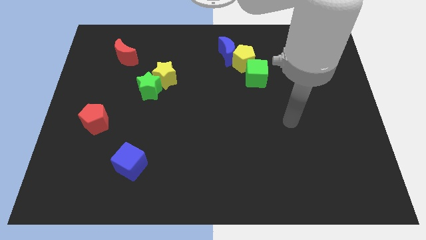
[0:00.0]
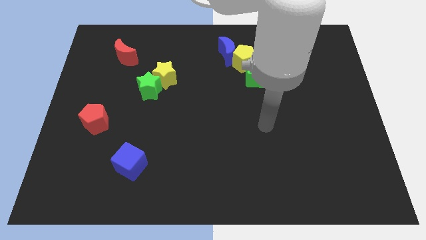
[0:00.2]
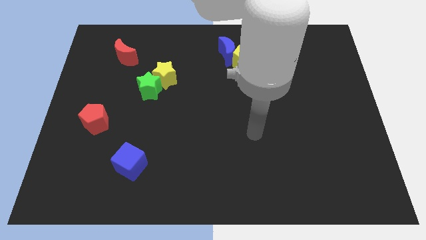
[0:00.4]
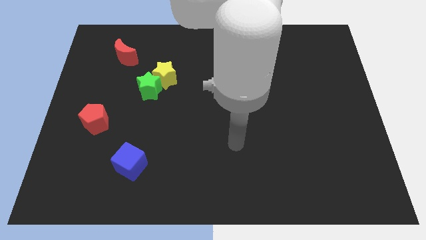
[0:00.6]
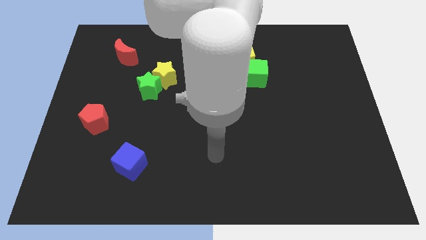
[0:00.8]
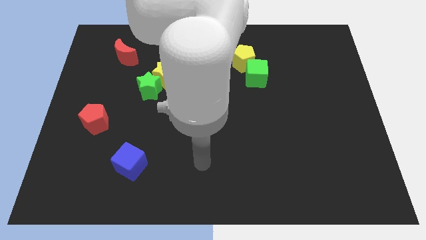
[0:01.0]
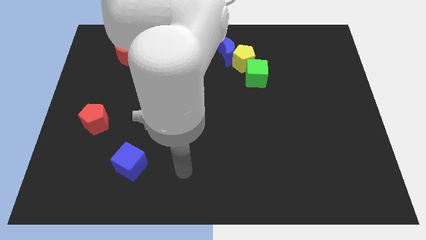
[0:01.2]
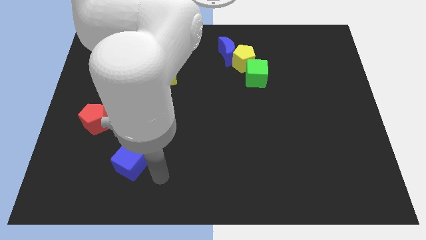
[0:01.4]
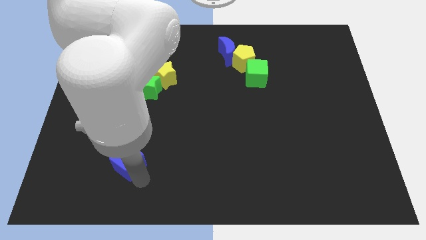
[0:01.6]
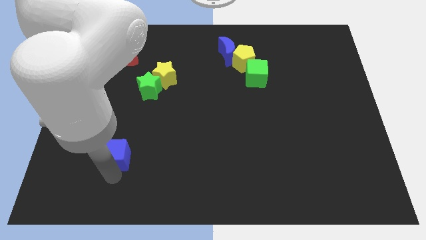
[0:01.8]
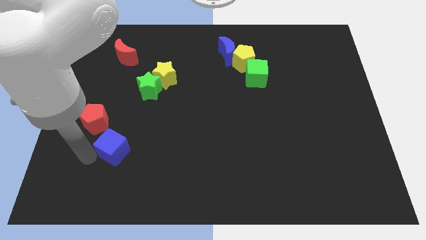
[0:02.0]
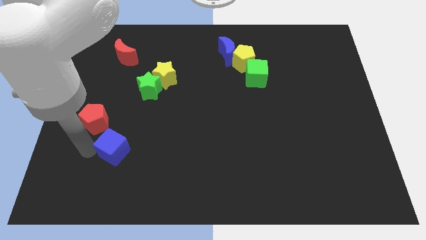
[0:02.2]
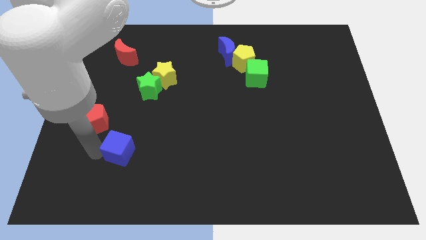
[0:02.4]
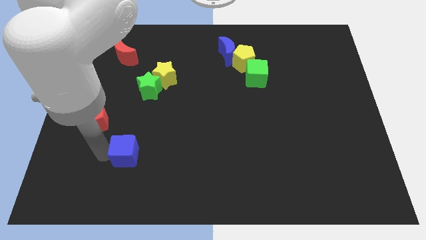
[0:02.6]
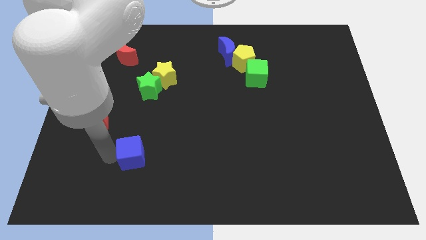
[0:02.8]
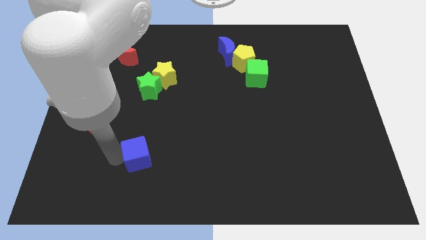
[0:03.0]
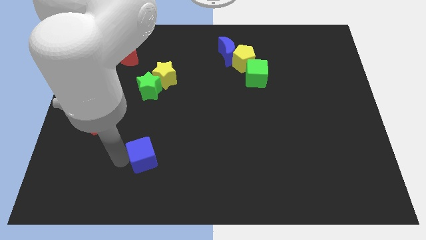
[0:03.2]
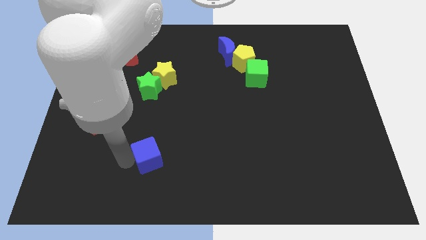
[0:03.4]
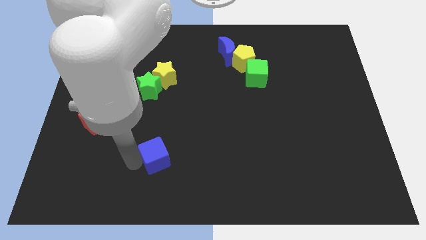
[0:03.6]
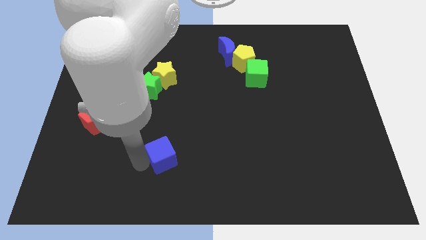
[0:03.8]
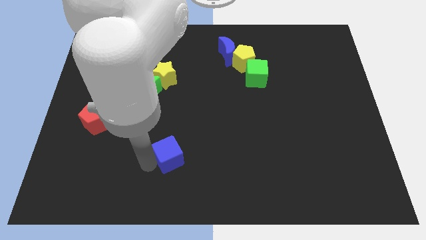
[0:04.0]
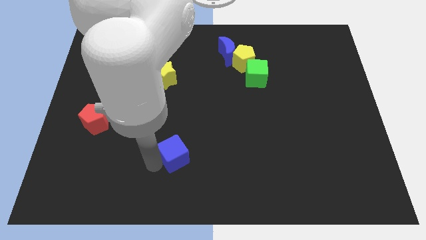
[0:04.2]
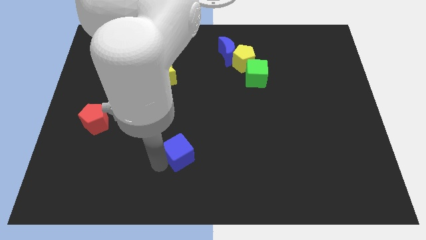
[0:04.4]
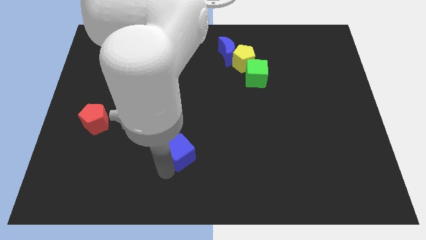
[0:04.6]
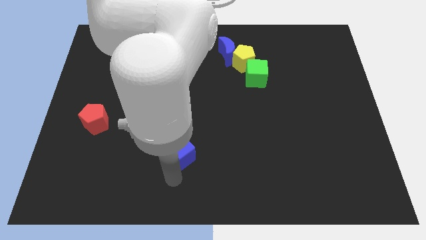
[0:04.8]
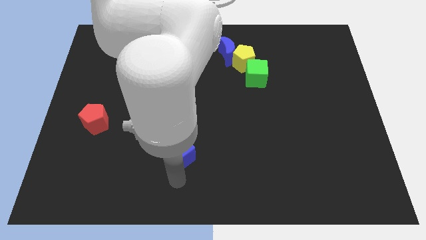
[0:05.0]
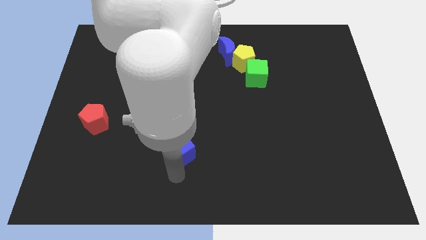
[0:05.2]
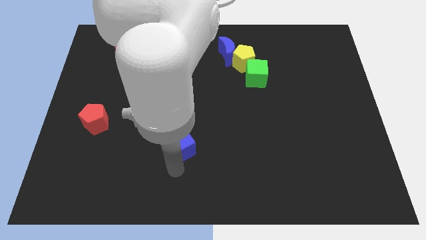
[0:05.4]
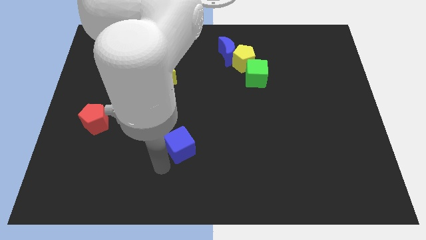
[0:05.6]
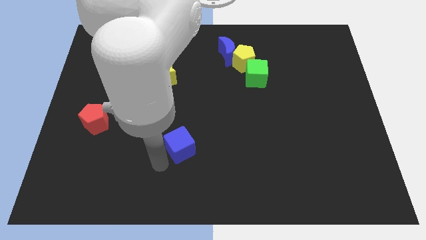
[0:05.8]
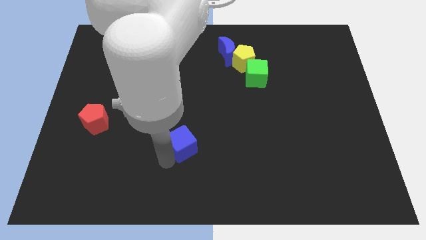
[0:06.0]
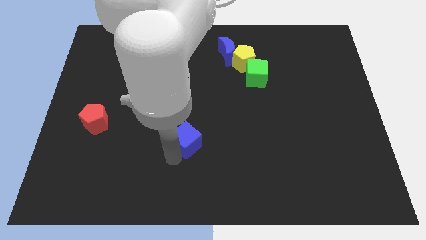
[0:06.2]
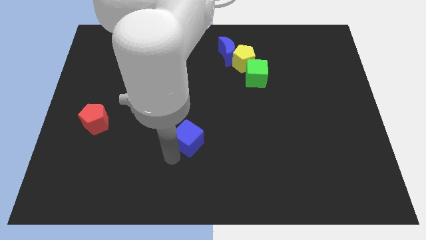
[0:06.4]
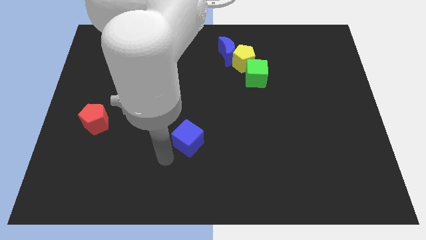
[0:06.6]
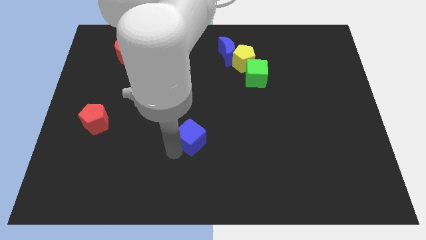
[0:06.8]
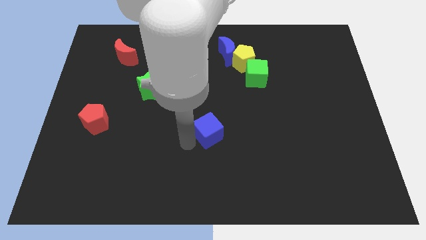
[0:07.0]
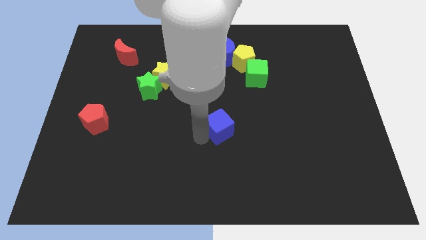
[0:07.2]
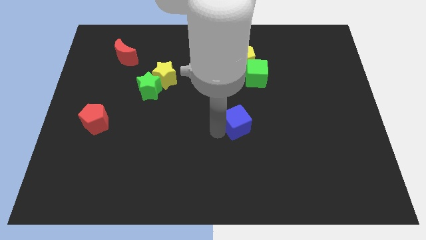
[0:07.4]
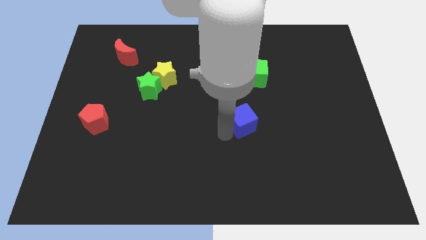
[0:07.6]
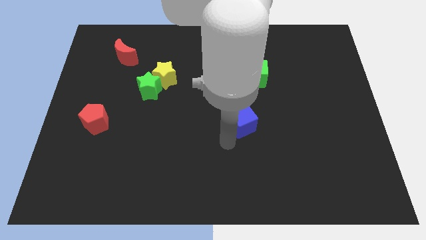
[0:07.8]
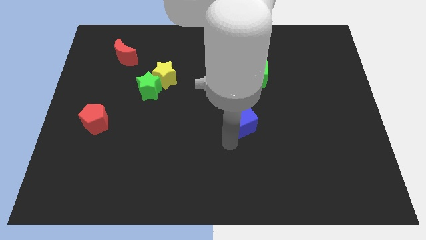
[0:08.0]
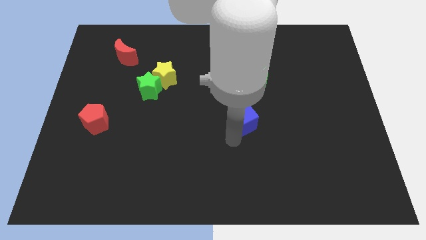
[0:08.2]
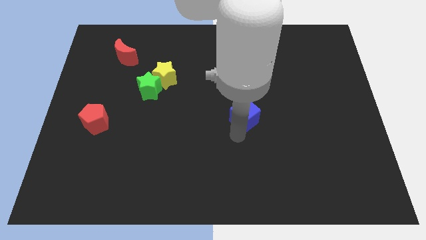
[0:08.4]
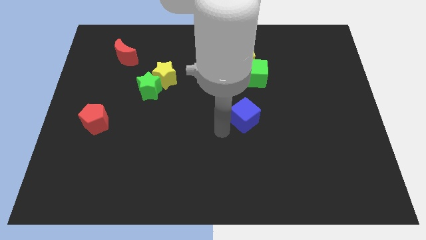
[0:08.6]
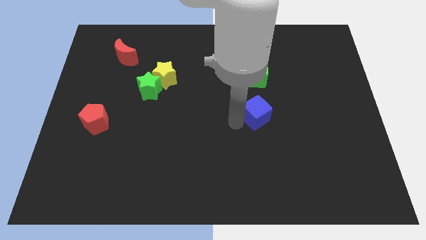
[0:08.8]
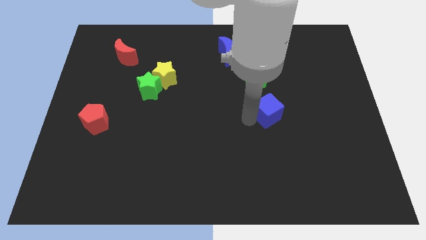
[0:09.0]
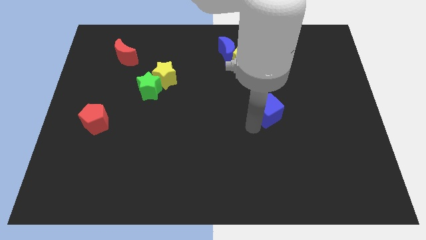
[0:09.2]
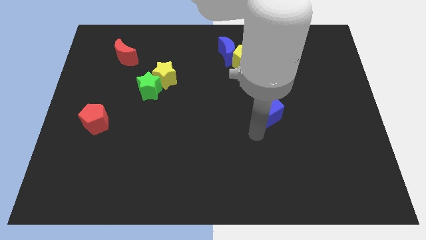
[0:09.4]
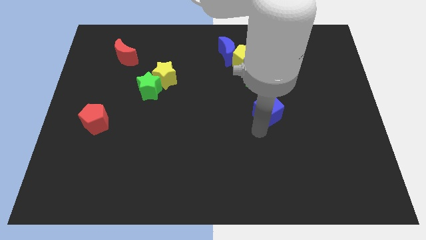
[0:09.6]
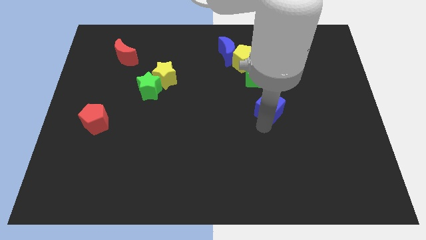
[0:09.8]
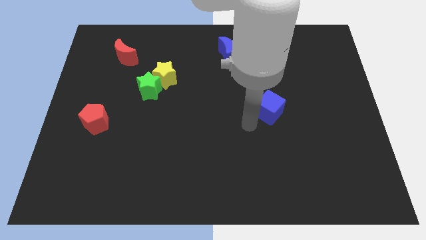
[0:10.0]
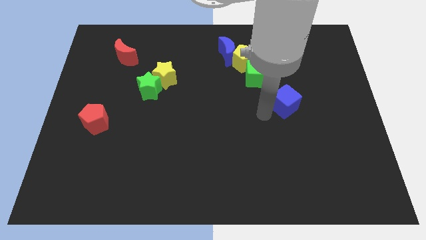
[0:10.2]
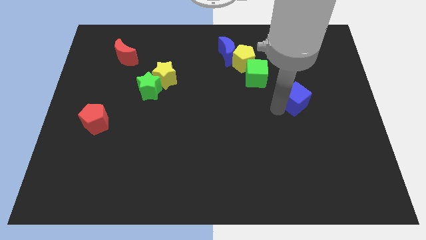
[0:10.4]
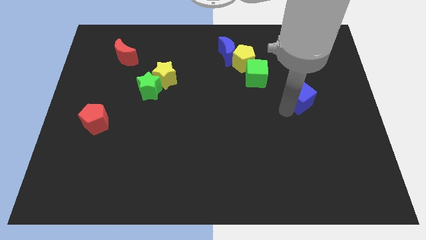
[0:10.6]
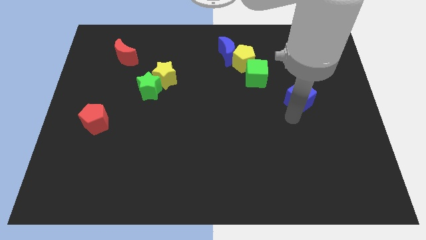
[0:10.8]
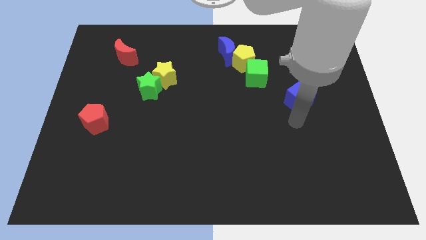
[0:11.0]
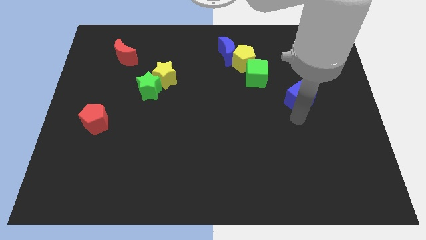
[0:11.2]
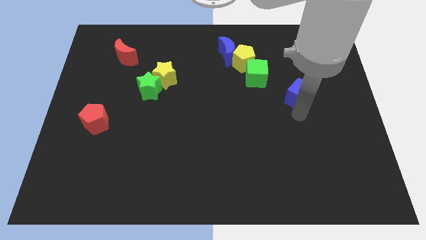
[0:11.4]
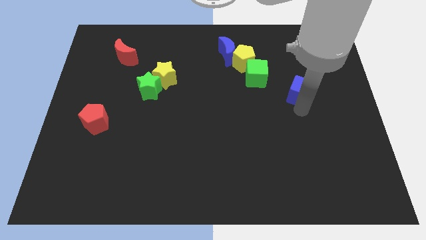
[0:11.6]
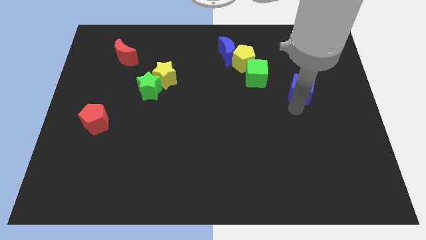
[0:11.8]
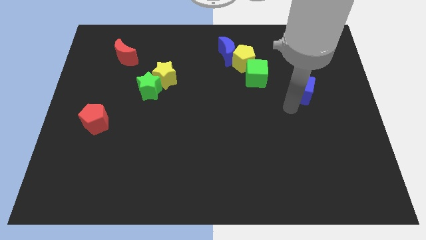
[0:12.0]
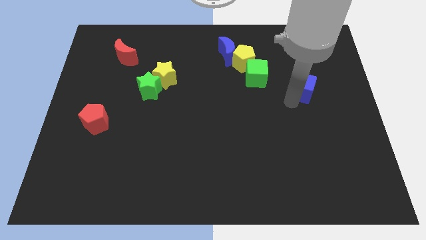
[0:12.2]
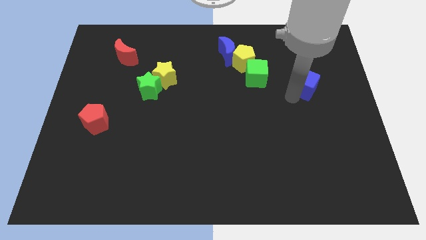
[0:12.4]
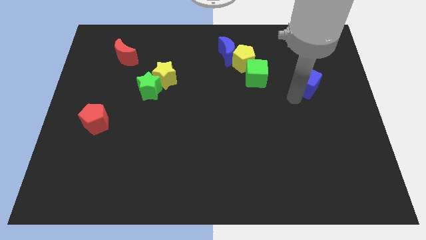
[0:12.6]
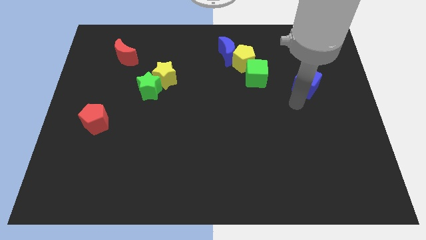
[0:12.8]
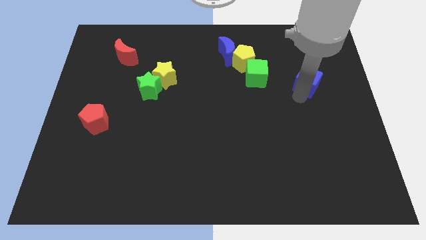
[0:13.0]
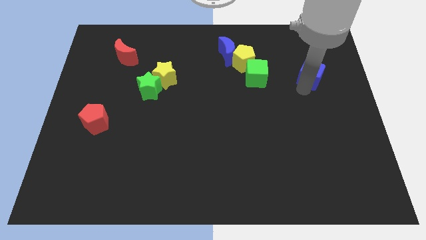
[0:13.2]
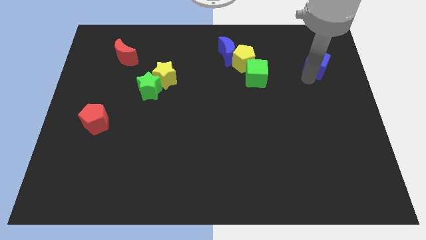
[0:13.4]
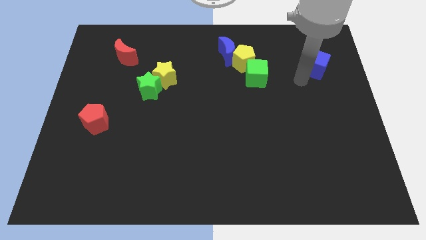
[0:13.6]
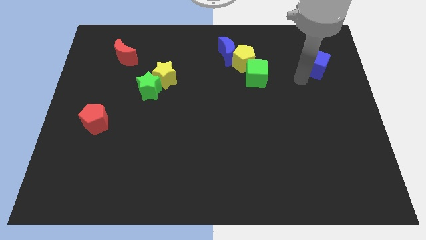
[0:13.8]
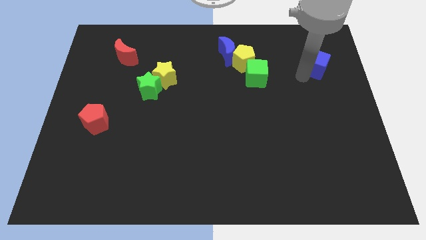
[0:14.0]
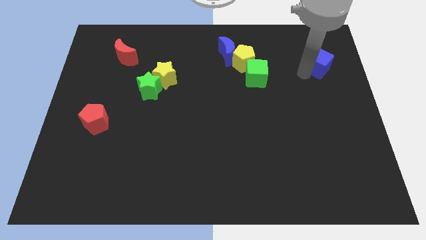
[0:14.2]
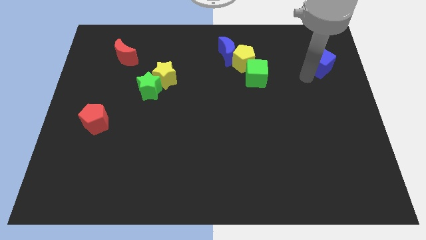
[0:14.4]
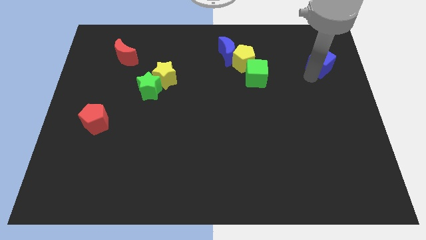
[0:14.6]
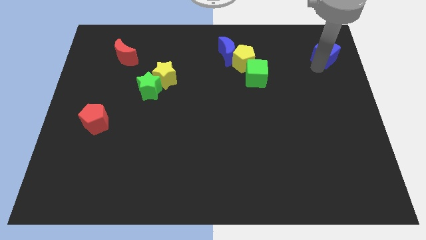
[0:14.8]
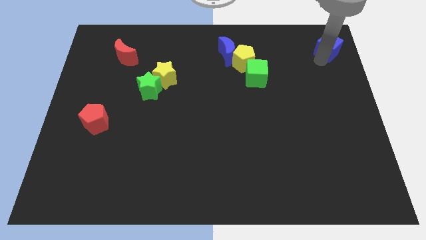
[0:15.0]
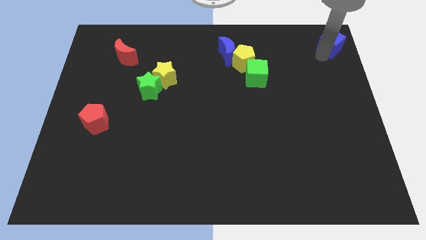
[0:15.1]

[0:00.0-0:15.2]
push the blue cube to the top right of the board
